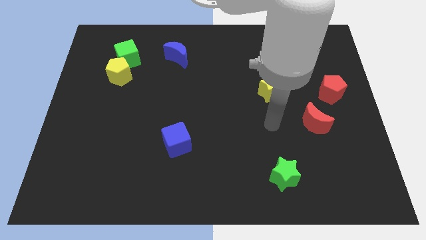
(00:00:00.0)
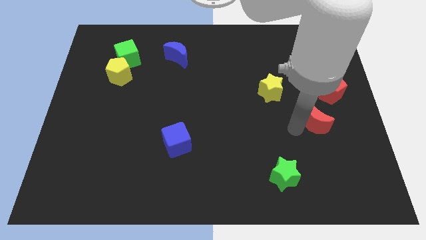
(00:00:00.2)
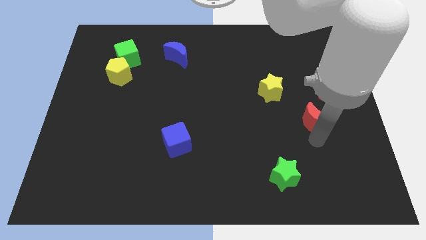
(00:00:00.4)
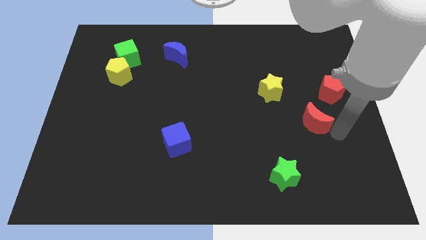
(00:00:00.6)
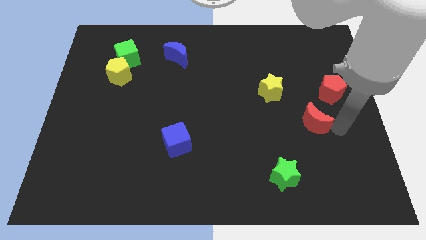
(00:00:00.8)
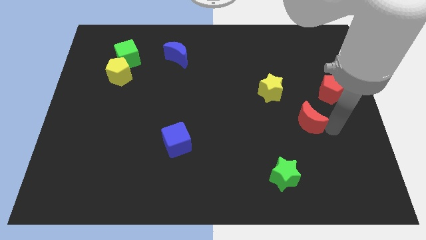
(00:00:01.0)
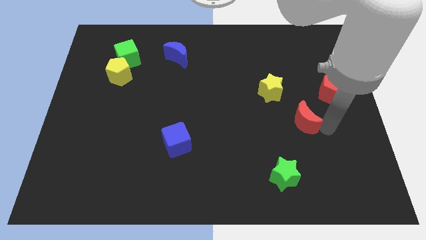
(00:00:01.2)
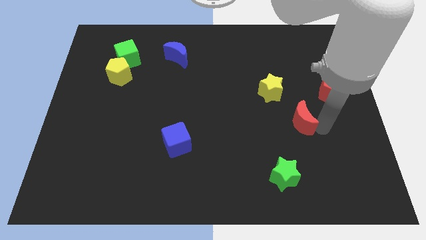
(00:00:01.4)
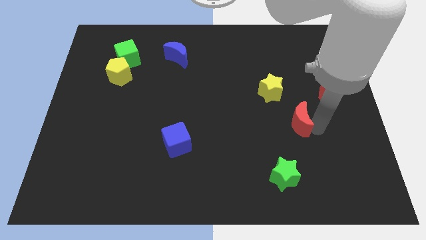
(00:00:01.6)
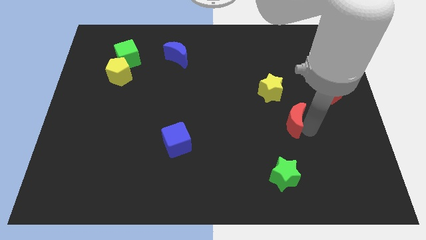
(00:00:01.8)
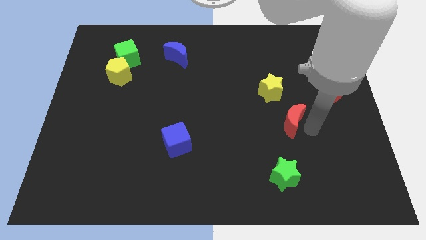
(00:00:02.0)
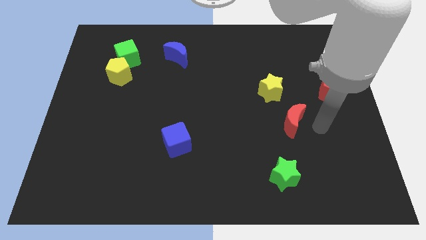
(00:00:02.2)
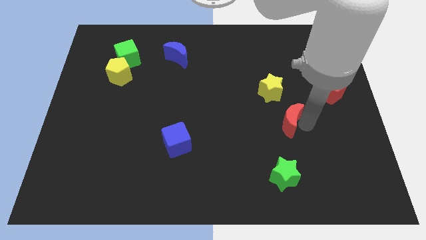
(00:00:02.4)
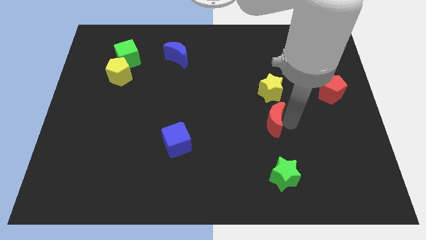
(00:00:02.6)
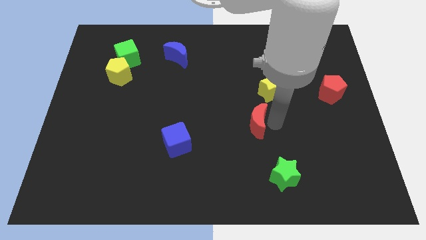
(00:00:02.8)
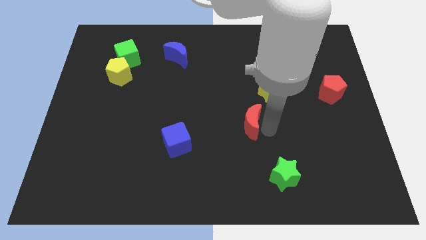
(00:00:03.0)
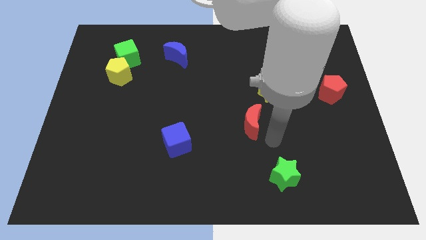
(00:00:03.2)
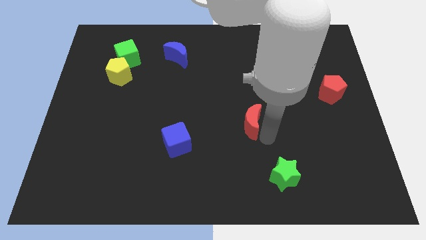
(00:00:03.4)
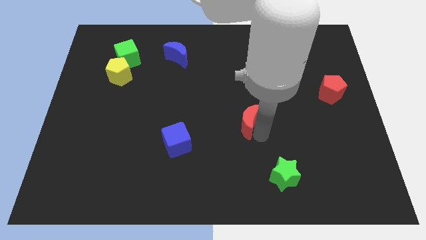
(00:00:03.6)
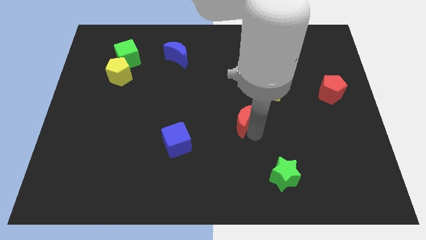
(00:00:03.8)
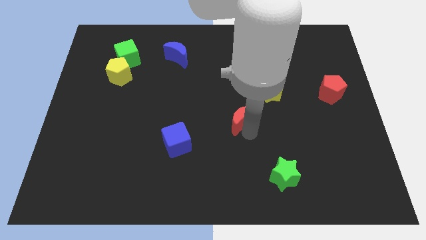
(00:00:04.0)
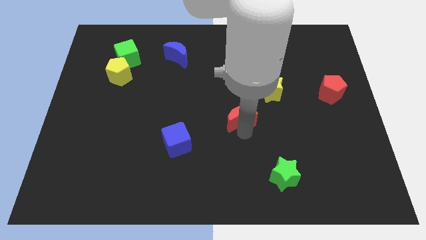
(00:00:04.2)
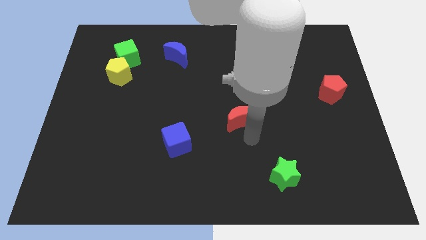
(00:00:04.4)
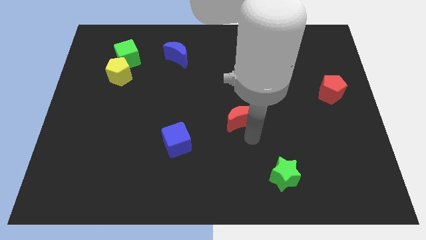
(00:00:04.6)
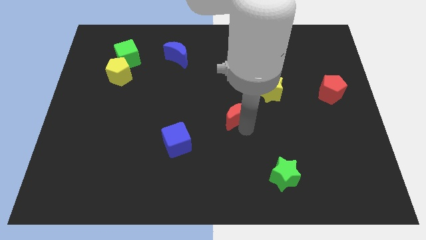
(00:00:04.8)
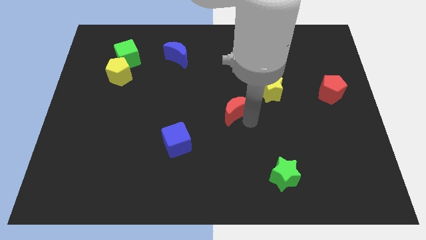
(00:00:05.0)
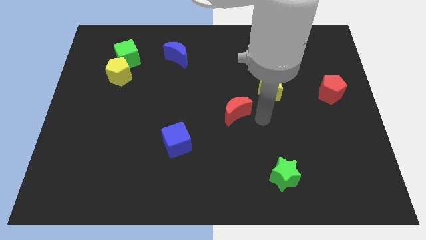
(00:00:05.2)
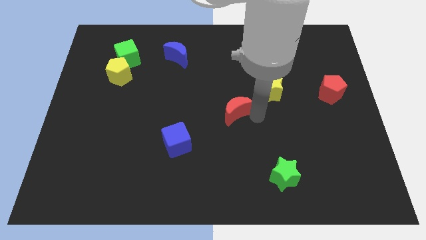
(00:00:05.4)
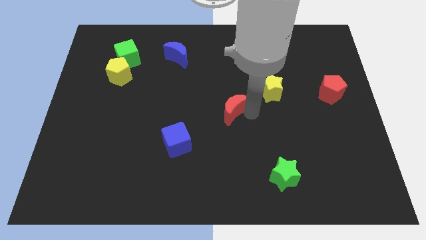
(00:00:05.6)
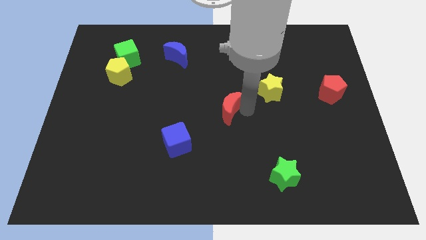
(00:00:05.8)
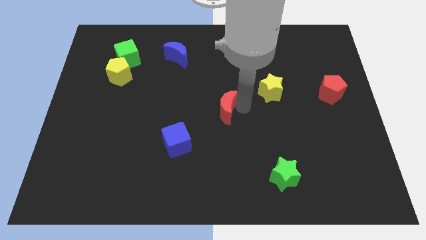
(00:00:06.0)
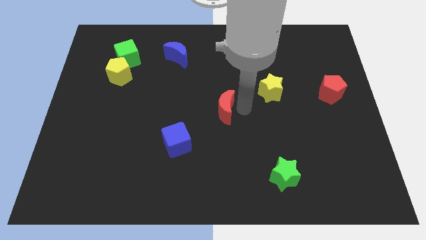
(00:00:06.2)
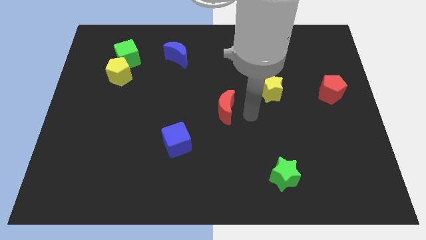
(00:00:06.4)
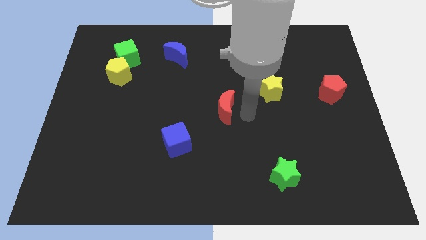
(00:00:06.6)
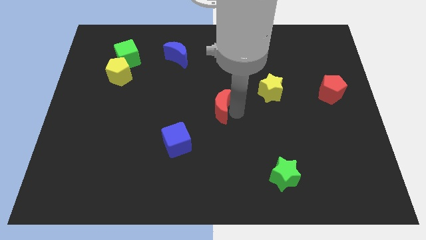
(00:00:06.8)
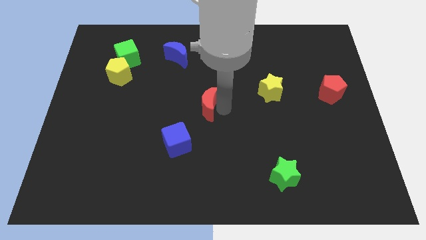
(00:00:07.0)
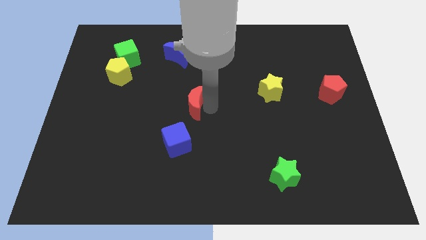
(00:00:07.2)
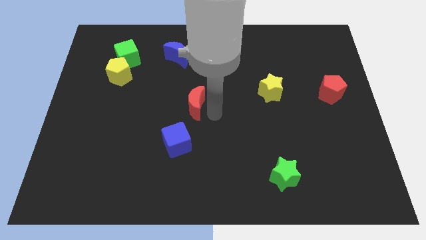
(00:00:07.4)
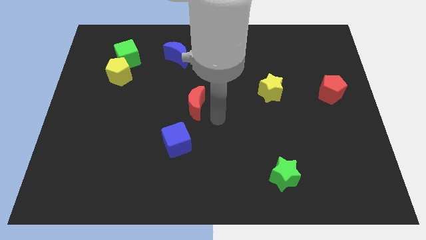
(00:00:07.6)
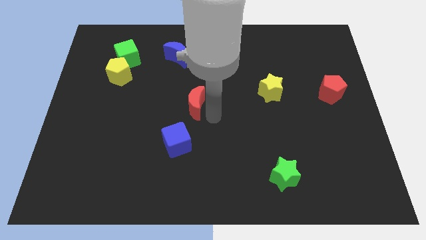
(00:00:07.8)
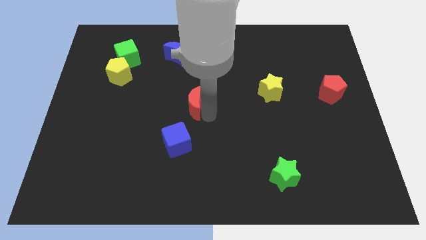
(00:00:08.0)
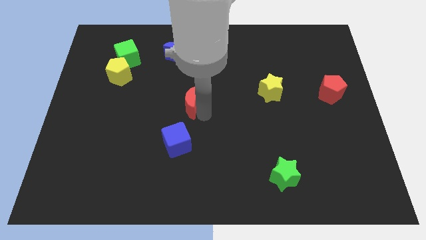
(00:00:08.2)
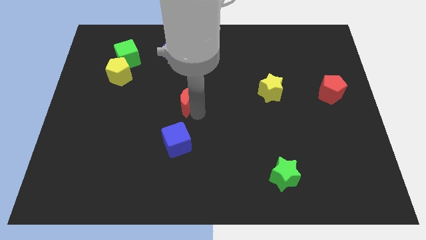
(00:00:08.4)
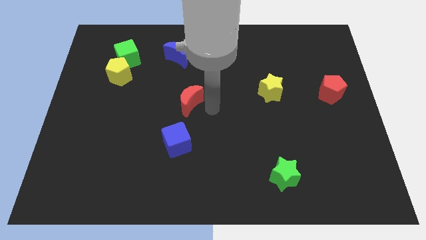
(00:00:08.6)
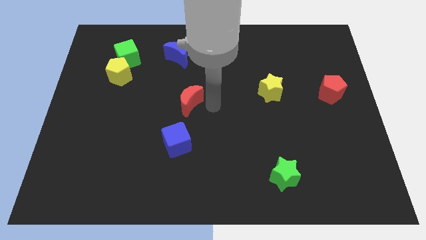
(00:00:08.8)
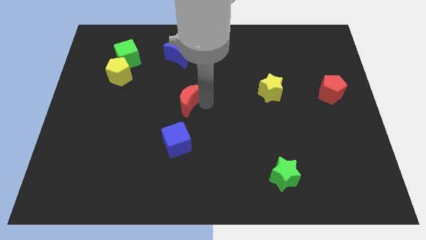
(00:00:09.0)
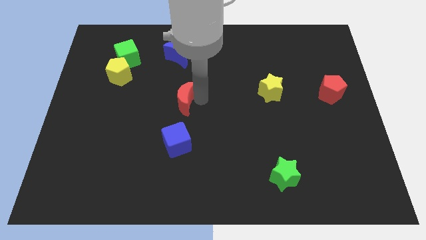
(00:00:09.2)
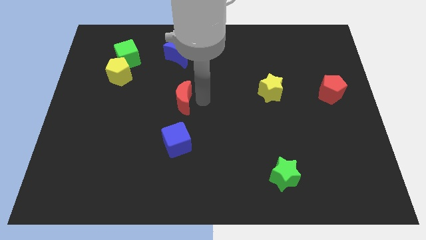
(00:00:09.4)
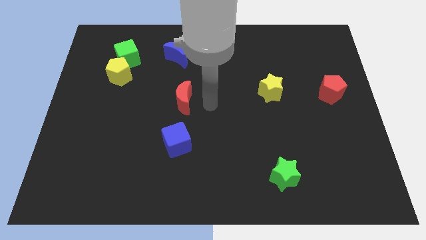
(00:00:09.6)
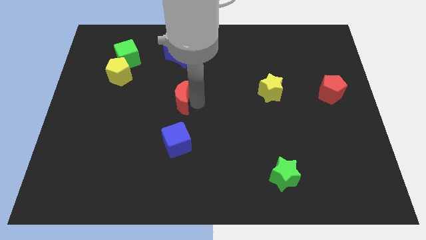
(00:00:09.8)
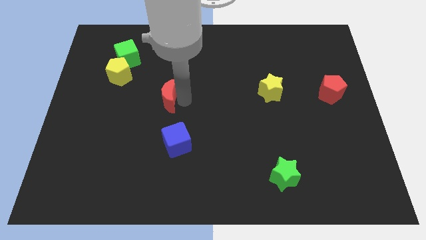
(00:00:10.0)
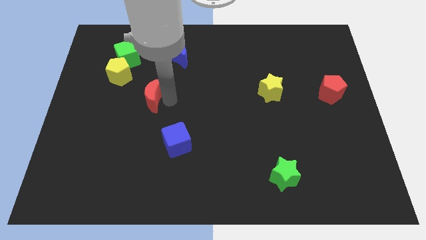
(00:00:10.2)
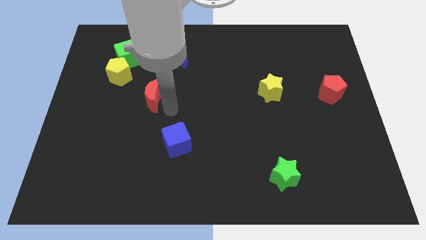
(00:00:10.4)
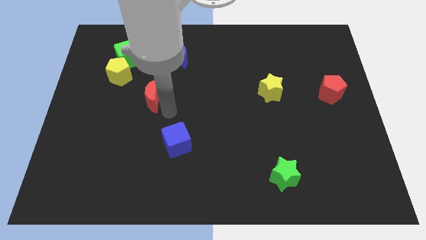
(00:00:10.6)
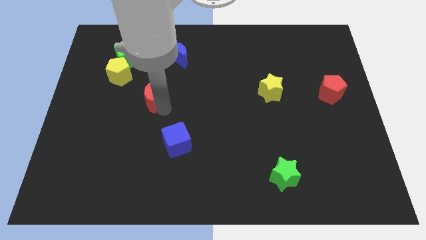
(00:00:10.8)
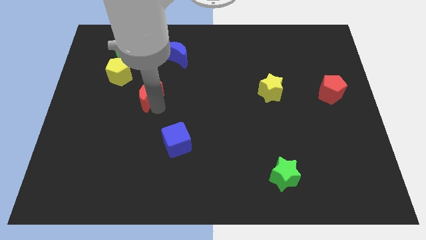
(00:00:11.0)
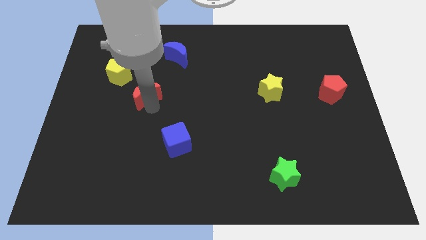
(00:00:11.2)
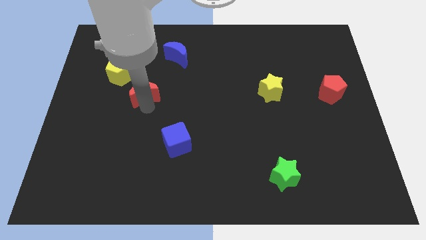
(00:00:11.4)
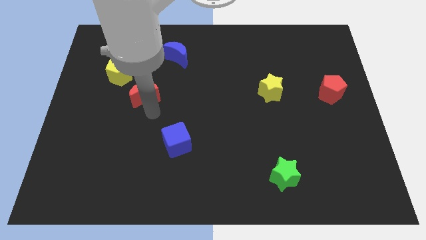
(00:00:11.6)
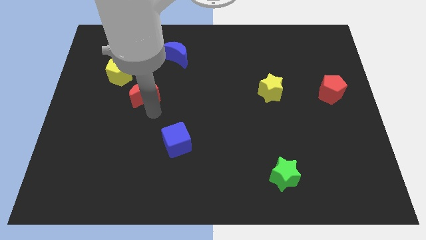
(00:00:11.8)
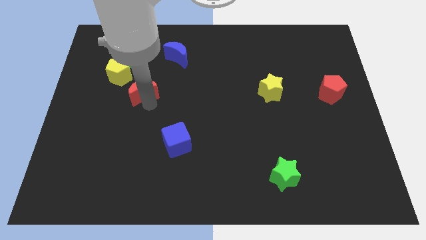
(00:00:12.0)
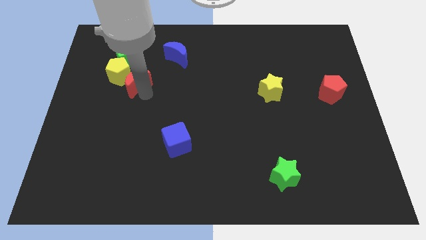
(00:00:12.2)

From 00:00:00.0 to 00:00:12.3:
move the red moon next to the yellow pentagon
